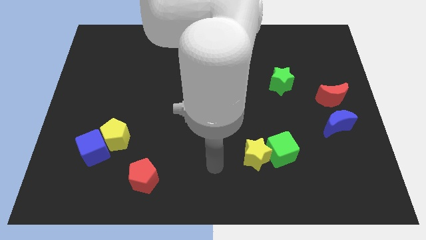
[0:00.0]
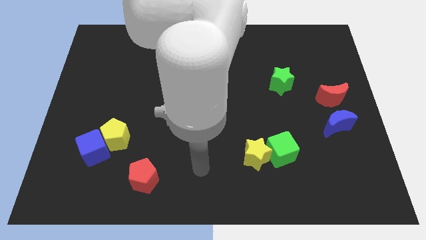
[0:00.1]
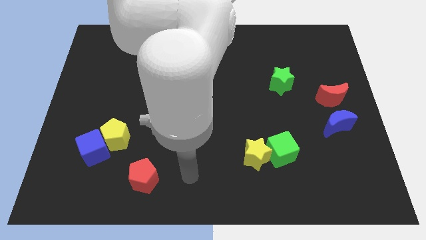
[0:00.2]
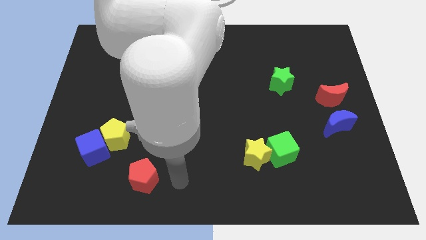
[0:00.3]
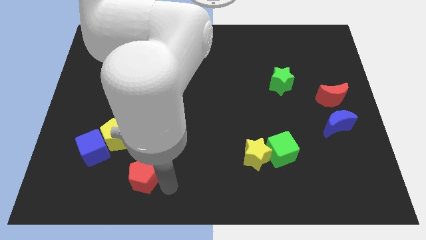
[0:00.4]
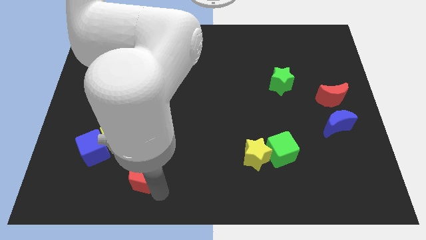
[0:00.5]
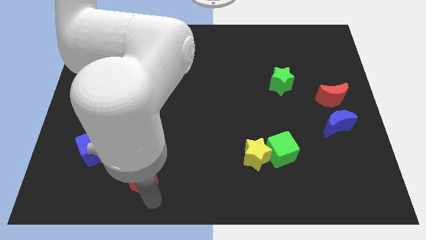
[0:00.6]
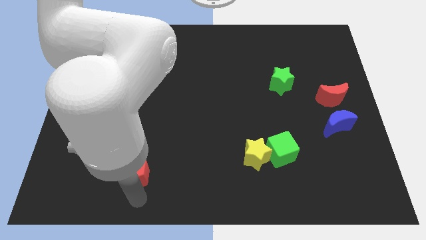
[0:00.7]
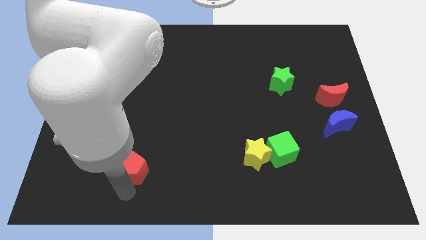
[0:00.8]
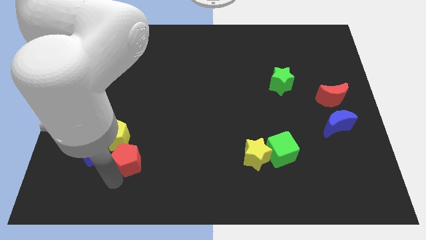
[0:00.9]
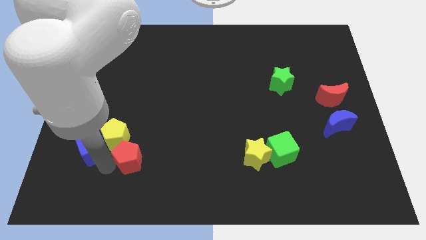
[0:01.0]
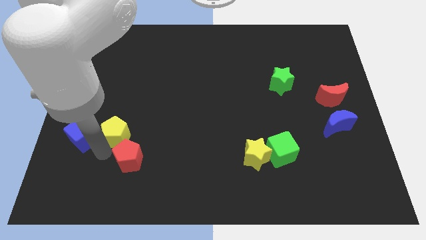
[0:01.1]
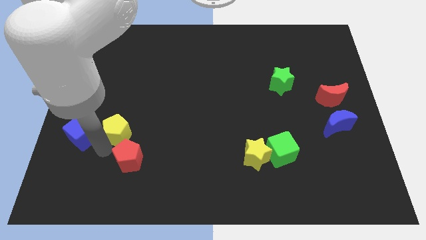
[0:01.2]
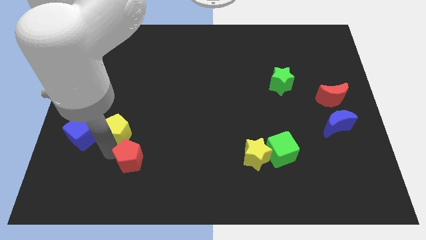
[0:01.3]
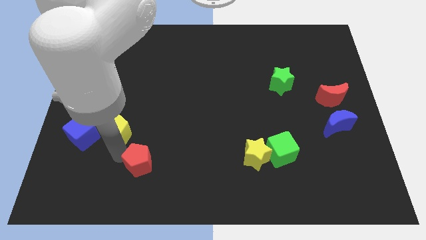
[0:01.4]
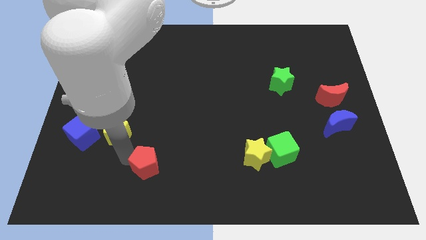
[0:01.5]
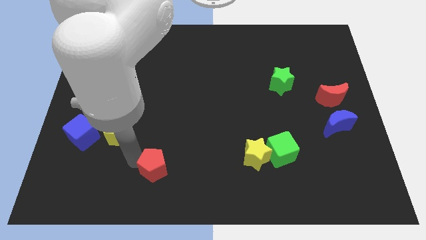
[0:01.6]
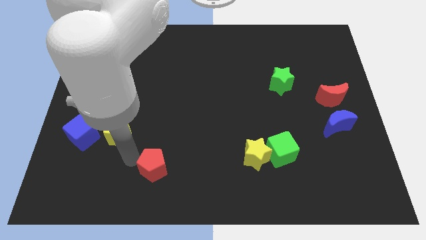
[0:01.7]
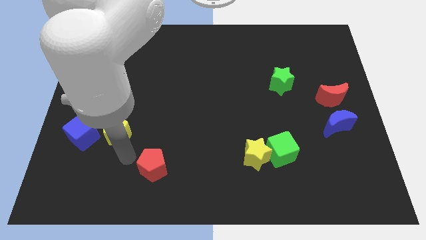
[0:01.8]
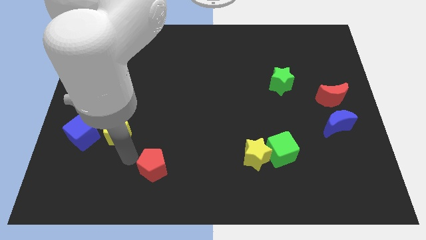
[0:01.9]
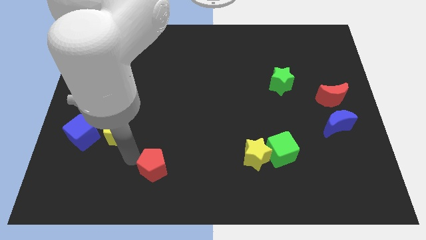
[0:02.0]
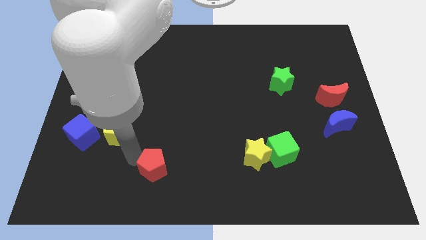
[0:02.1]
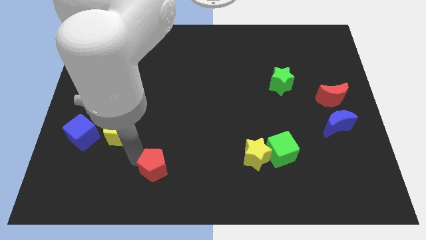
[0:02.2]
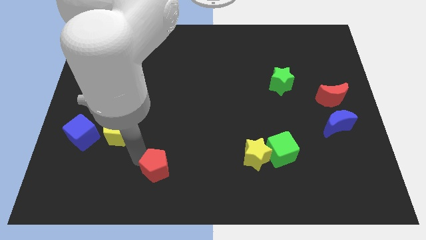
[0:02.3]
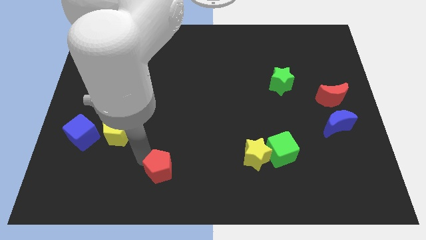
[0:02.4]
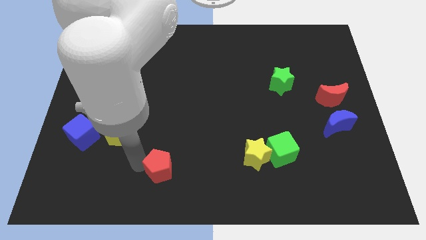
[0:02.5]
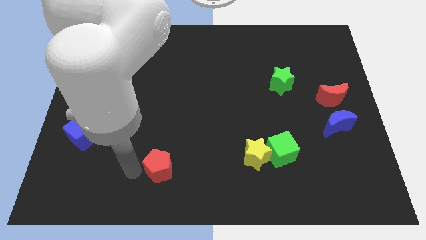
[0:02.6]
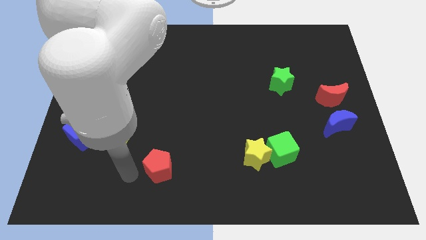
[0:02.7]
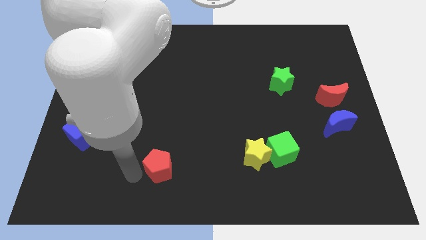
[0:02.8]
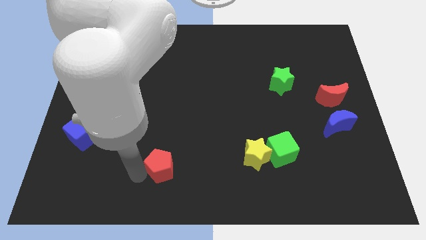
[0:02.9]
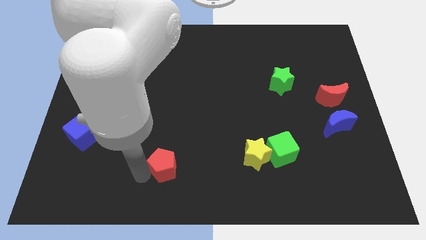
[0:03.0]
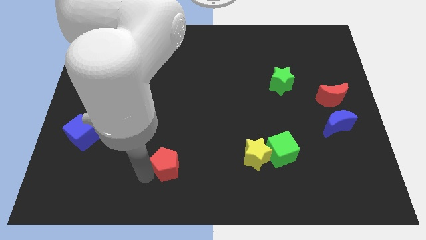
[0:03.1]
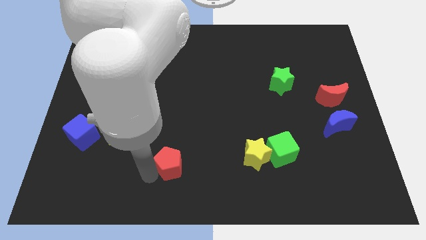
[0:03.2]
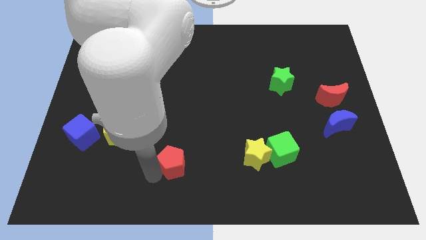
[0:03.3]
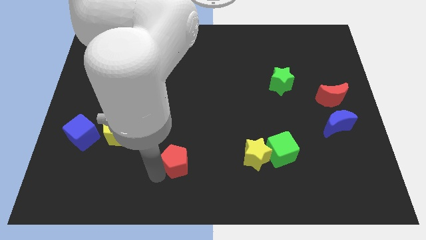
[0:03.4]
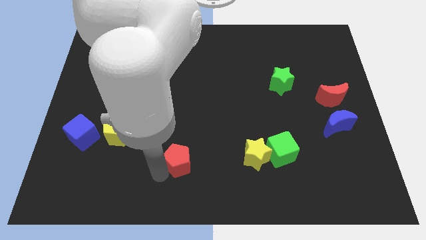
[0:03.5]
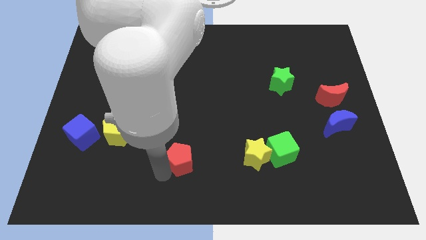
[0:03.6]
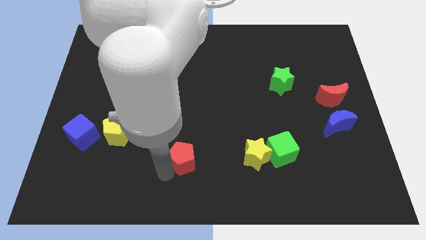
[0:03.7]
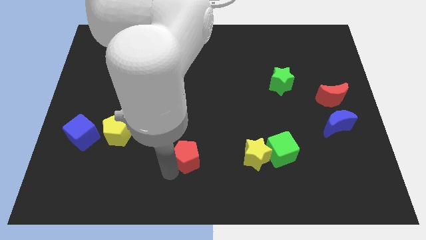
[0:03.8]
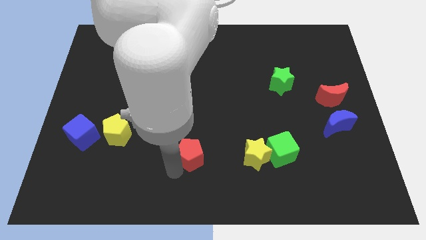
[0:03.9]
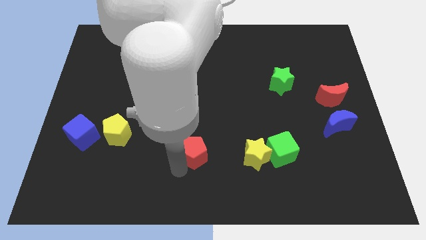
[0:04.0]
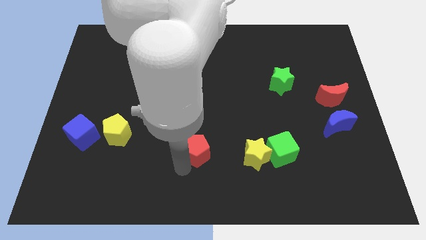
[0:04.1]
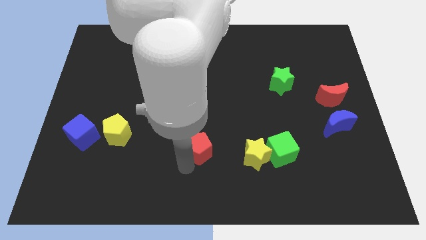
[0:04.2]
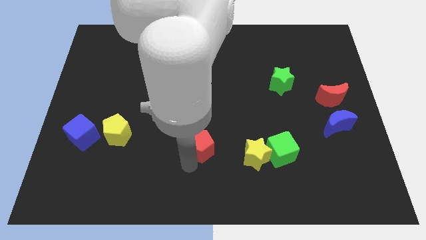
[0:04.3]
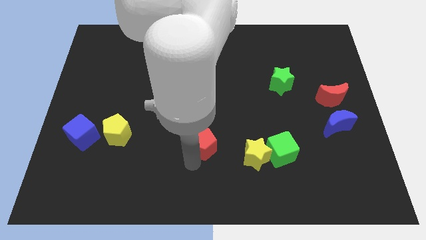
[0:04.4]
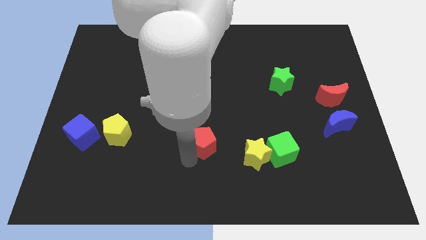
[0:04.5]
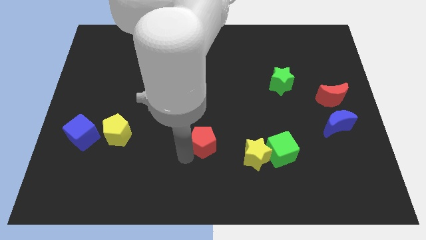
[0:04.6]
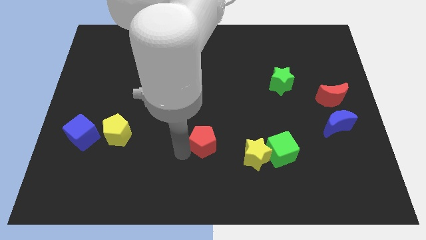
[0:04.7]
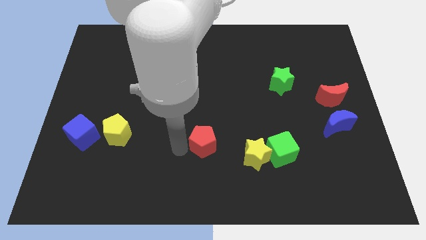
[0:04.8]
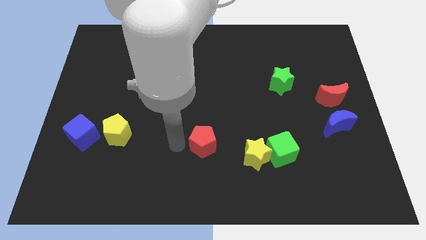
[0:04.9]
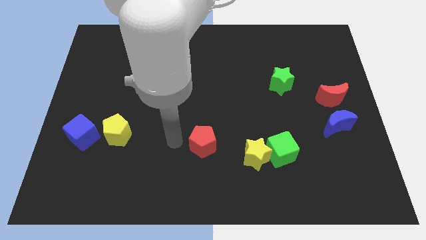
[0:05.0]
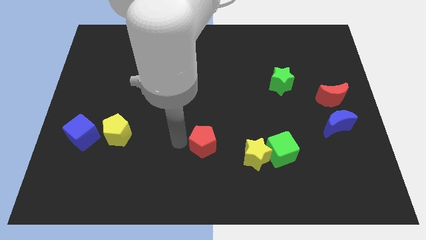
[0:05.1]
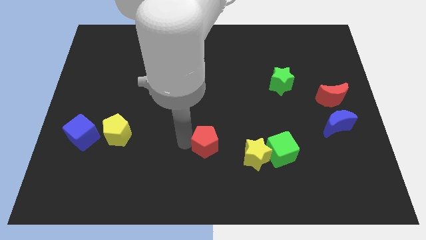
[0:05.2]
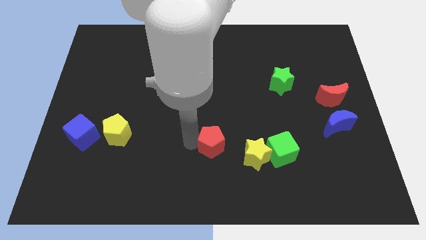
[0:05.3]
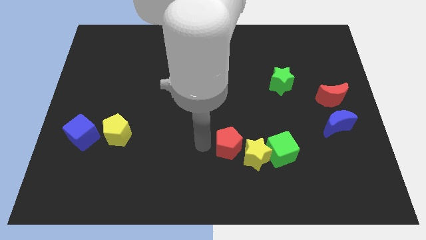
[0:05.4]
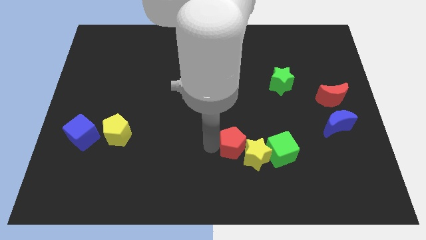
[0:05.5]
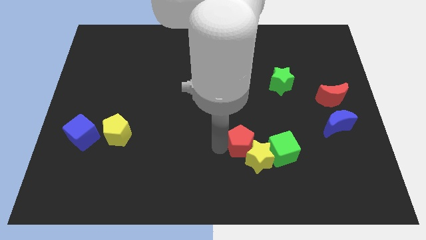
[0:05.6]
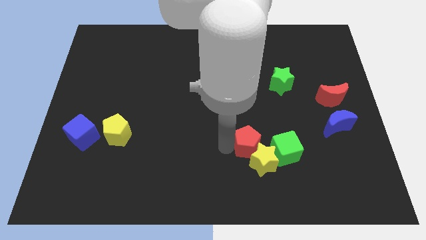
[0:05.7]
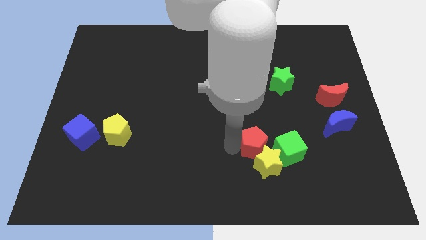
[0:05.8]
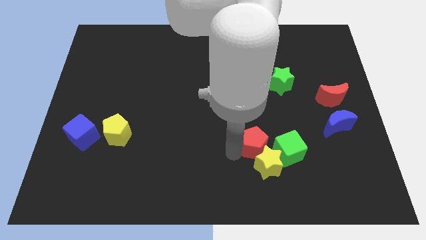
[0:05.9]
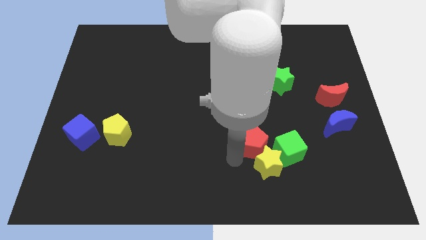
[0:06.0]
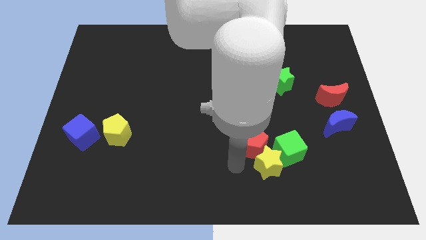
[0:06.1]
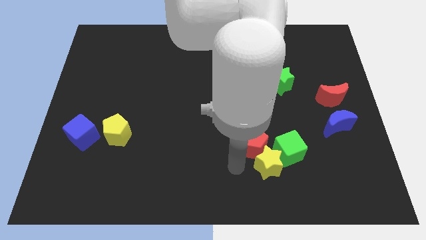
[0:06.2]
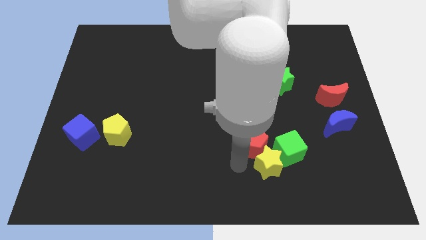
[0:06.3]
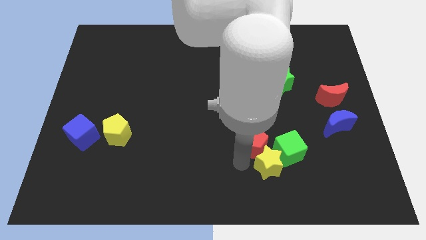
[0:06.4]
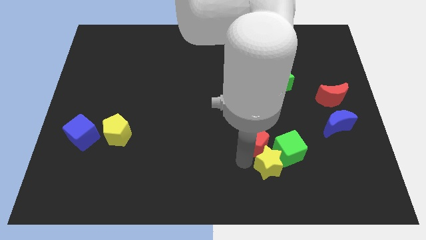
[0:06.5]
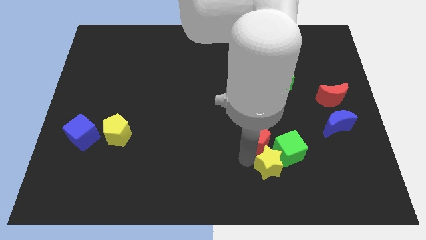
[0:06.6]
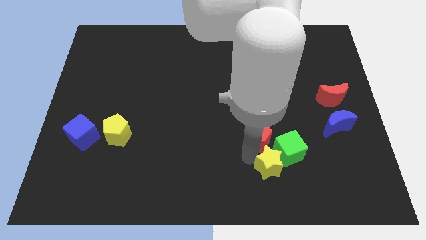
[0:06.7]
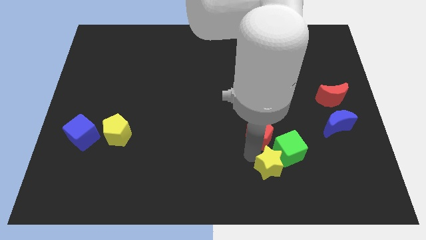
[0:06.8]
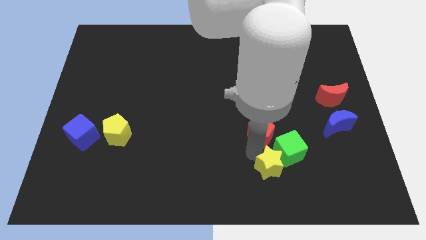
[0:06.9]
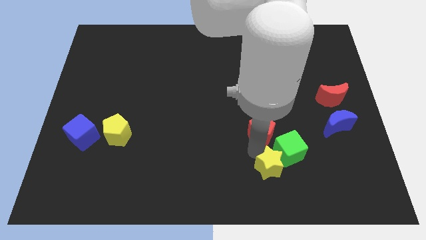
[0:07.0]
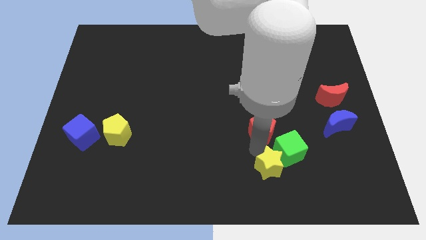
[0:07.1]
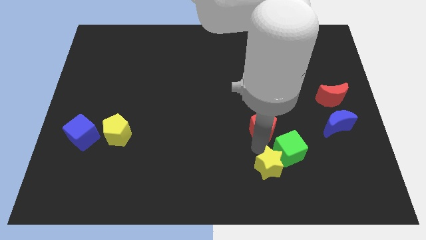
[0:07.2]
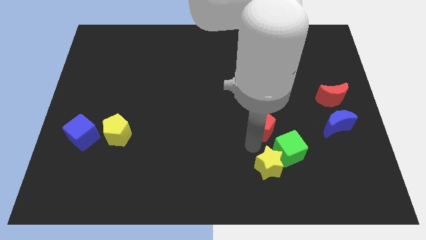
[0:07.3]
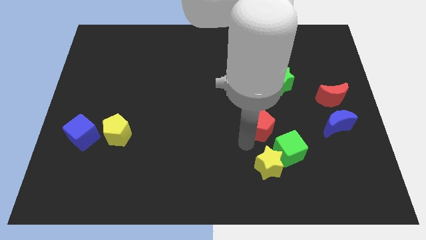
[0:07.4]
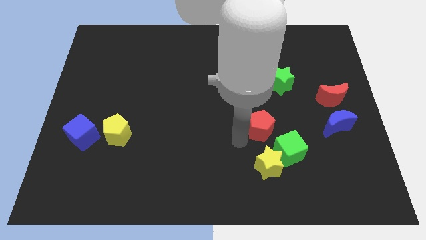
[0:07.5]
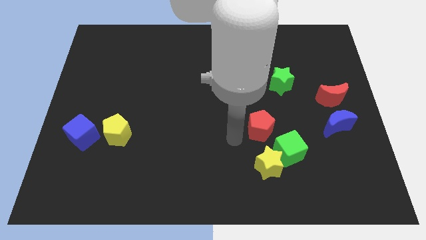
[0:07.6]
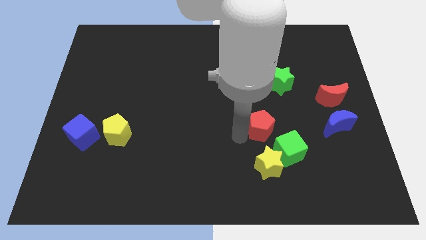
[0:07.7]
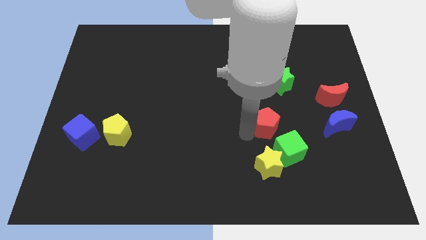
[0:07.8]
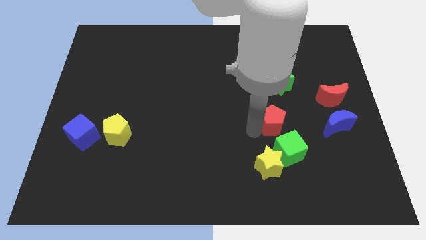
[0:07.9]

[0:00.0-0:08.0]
put the red pentagon to the bottom of the green star
